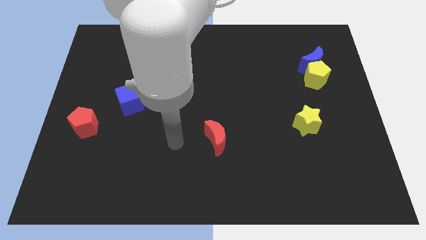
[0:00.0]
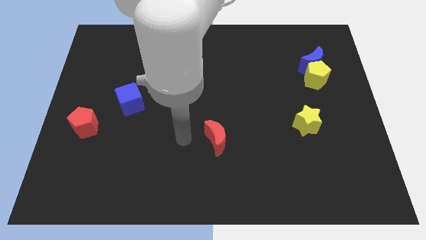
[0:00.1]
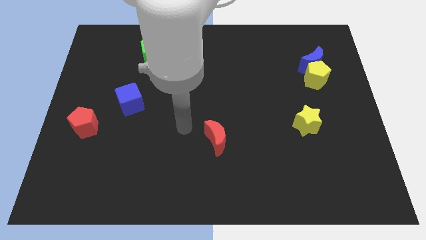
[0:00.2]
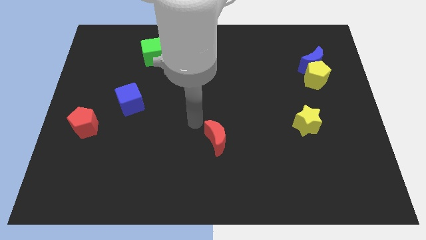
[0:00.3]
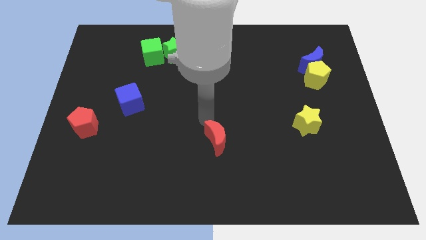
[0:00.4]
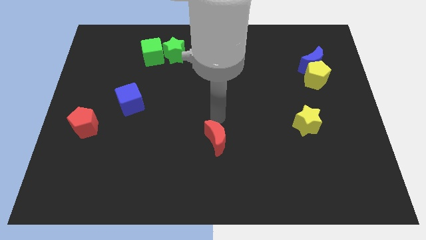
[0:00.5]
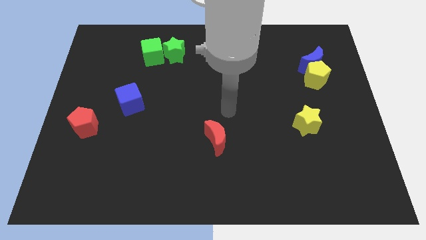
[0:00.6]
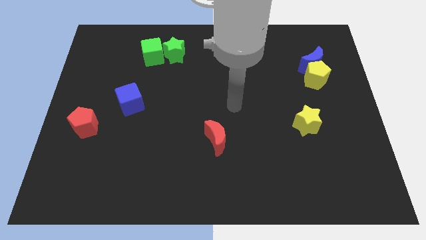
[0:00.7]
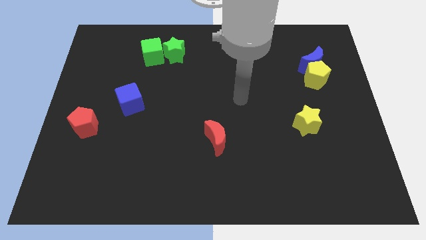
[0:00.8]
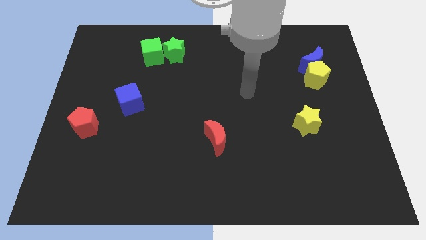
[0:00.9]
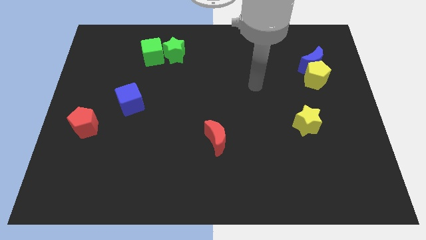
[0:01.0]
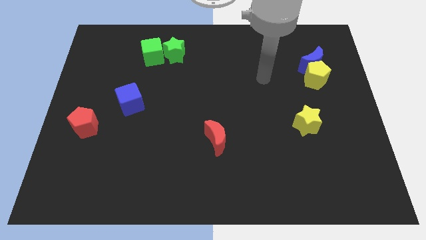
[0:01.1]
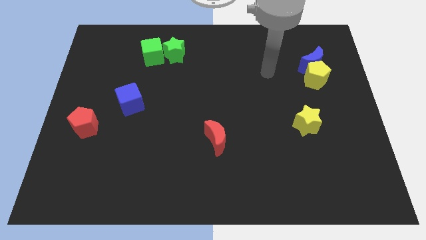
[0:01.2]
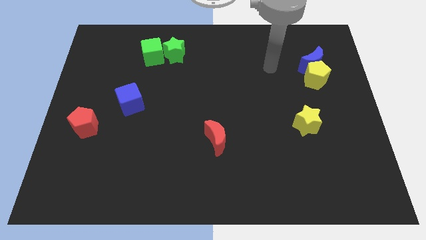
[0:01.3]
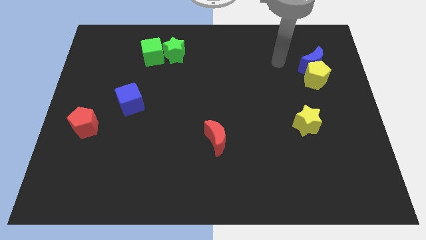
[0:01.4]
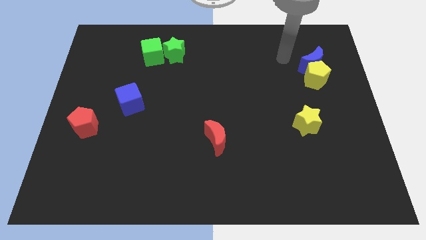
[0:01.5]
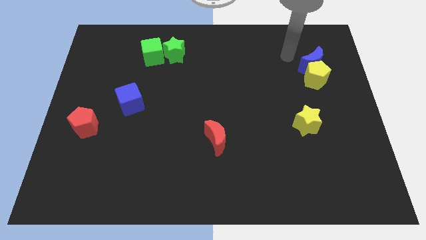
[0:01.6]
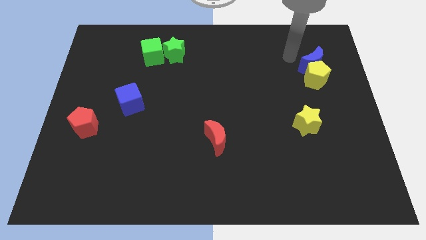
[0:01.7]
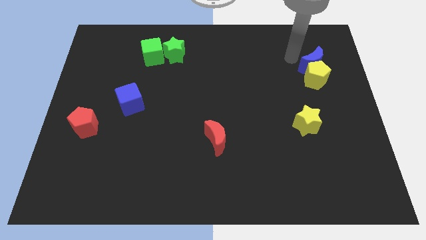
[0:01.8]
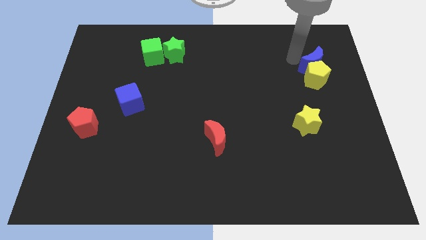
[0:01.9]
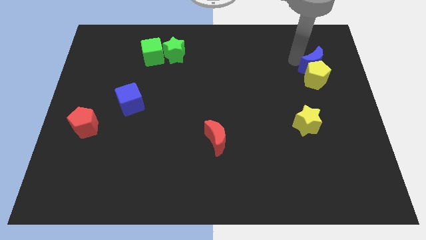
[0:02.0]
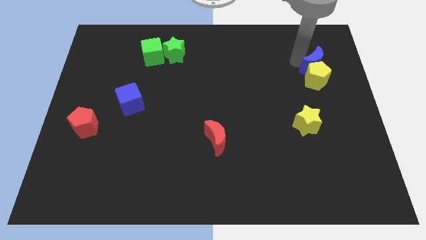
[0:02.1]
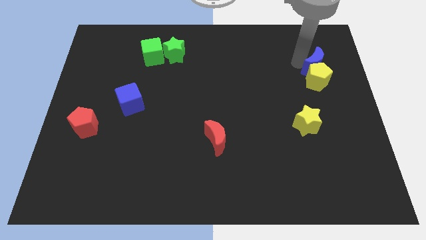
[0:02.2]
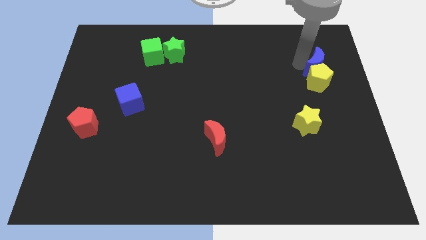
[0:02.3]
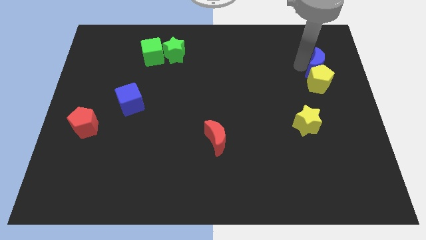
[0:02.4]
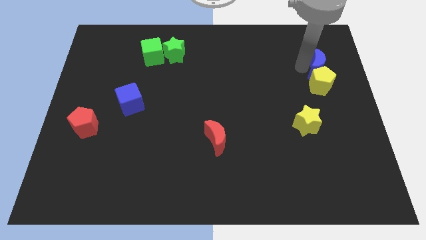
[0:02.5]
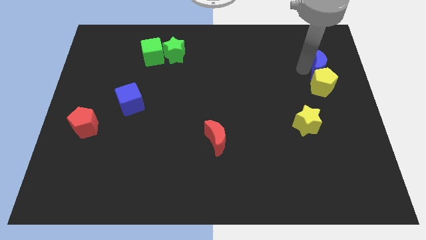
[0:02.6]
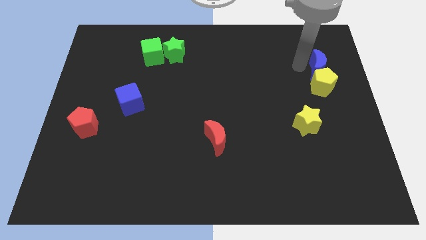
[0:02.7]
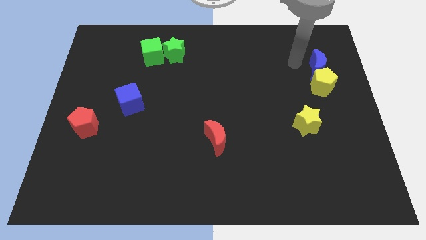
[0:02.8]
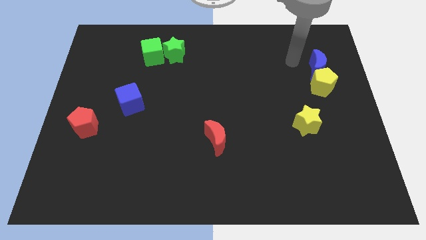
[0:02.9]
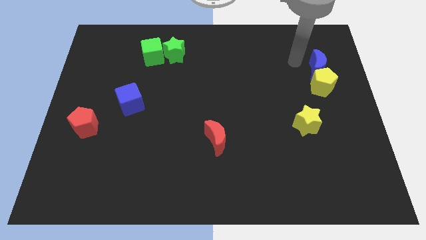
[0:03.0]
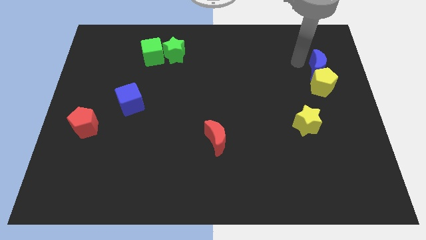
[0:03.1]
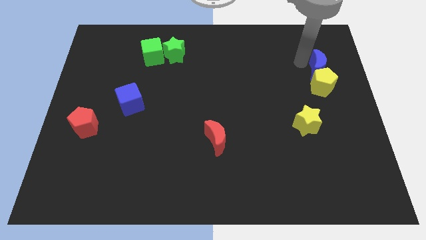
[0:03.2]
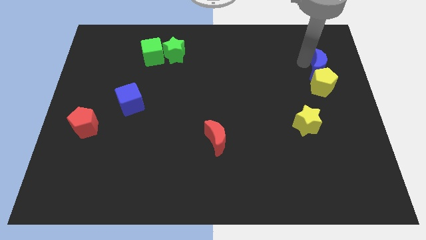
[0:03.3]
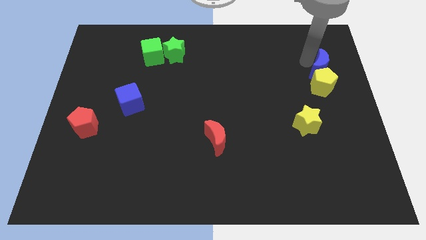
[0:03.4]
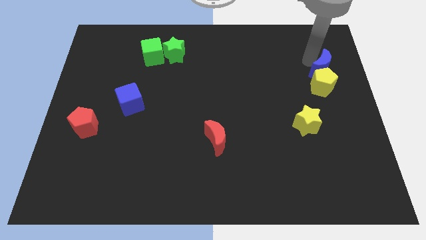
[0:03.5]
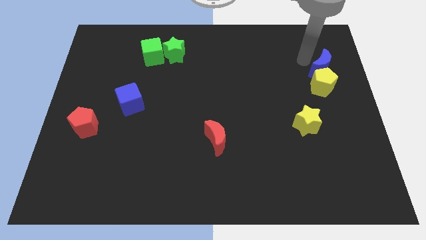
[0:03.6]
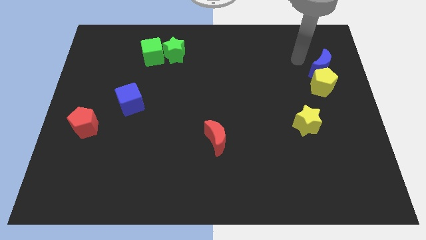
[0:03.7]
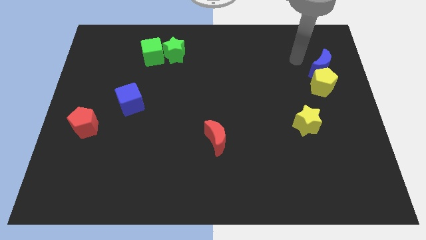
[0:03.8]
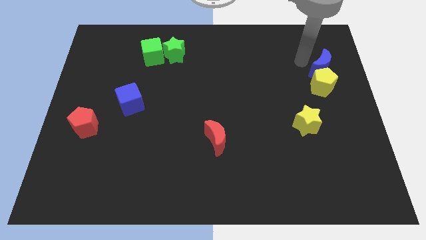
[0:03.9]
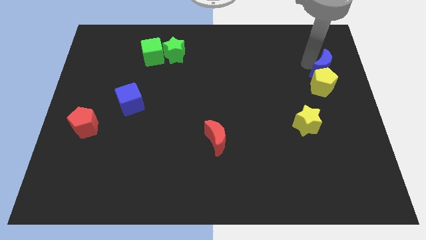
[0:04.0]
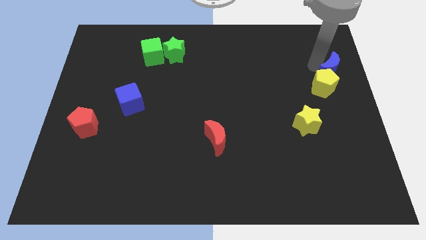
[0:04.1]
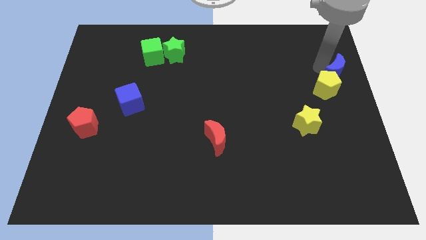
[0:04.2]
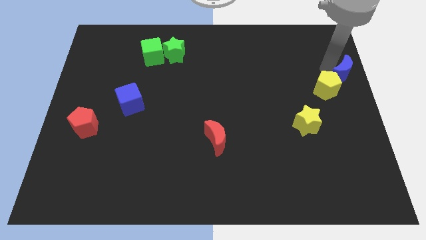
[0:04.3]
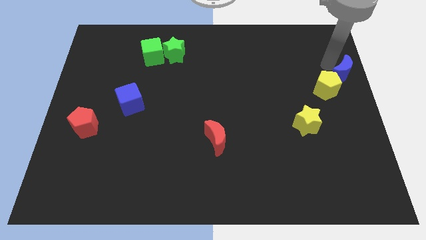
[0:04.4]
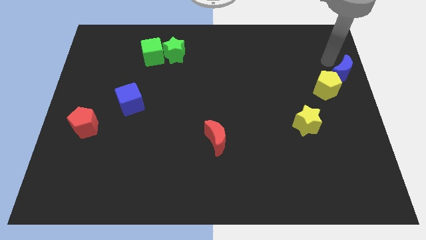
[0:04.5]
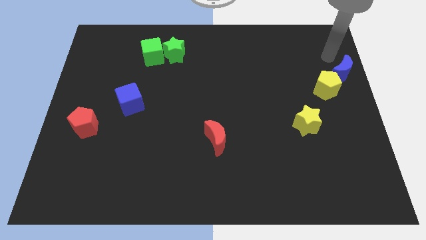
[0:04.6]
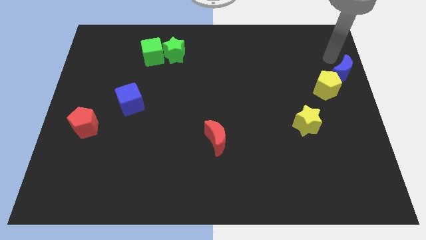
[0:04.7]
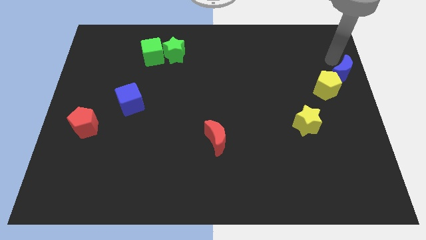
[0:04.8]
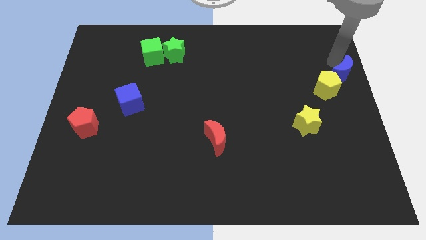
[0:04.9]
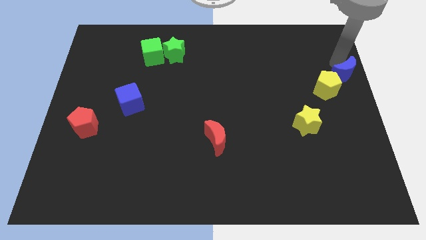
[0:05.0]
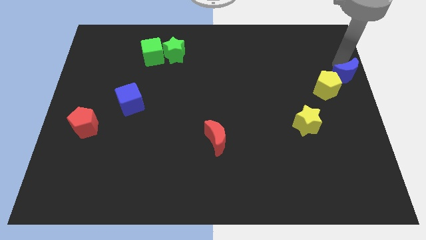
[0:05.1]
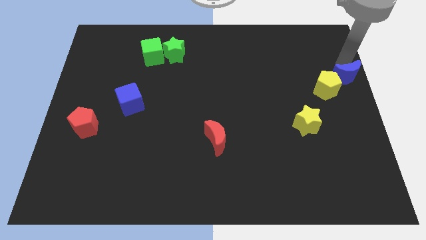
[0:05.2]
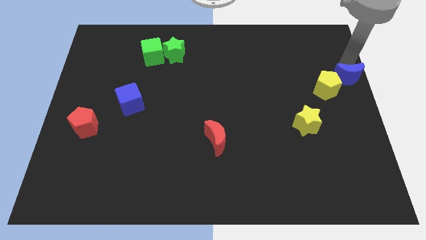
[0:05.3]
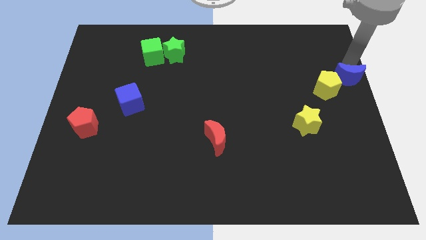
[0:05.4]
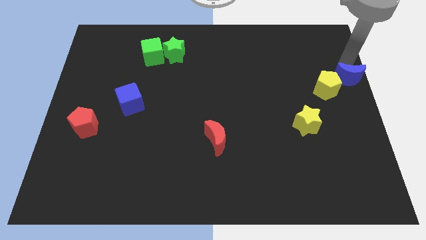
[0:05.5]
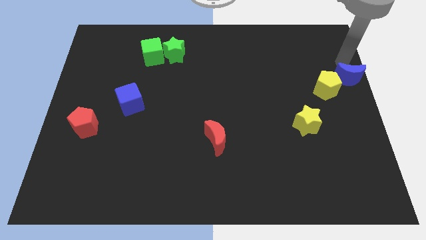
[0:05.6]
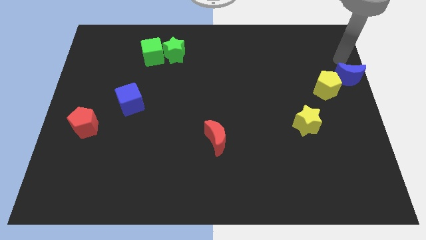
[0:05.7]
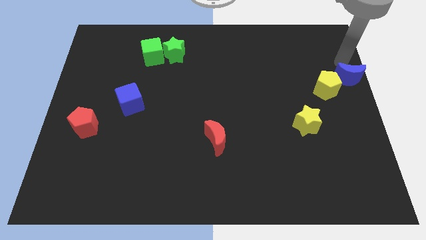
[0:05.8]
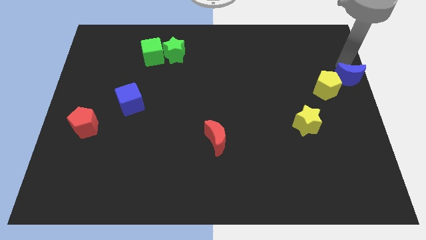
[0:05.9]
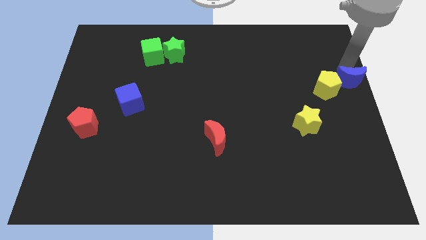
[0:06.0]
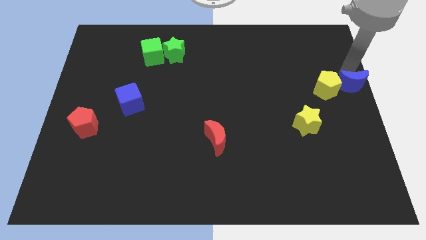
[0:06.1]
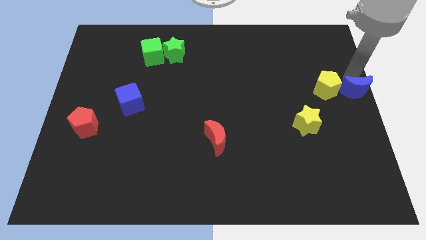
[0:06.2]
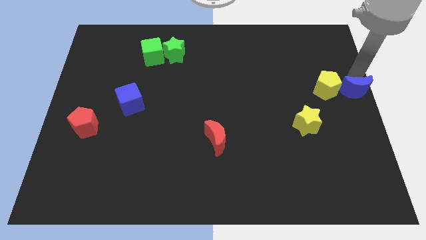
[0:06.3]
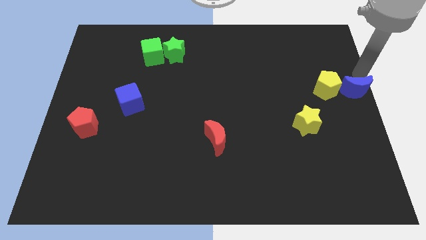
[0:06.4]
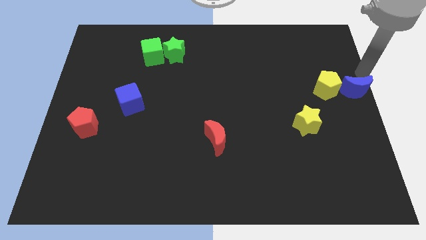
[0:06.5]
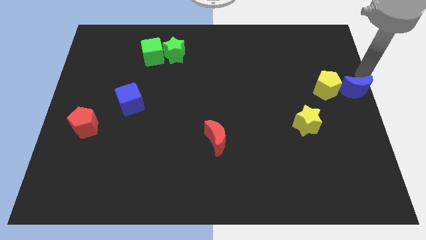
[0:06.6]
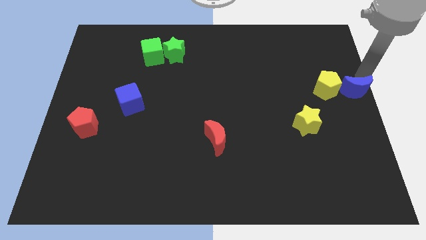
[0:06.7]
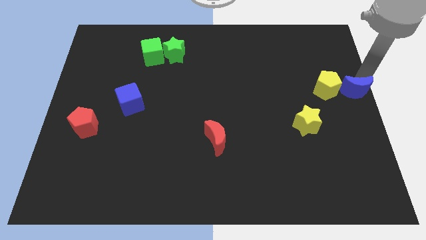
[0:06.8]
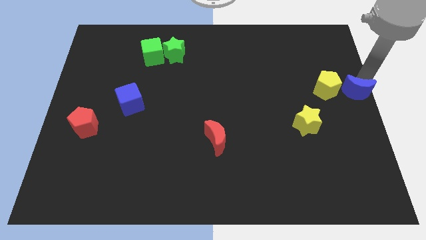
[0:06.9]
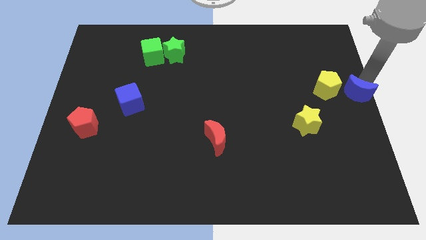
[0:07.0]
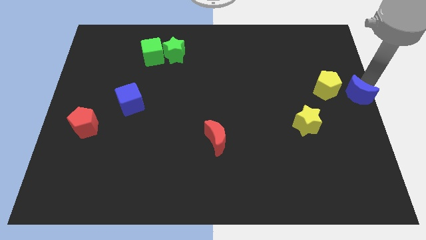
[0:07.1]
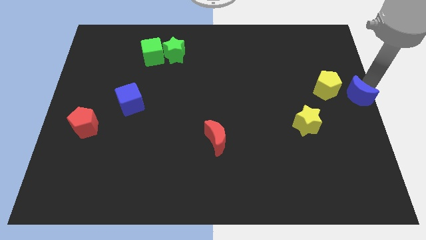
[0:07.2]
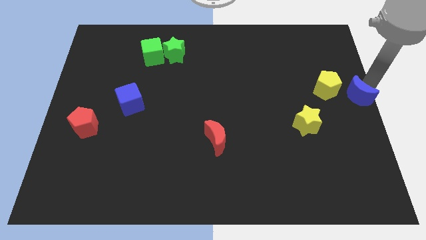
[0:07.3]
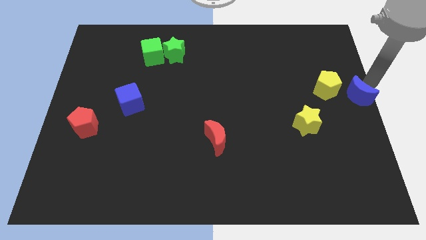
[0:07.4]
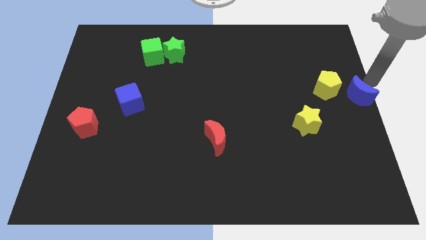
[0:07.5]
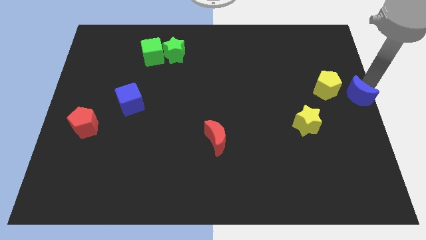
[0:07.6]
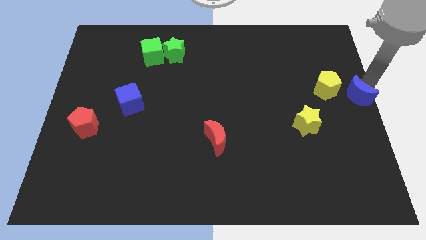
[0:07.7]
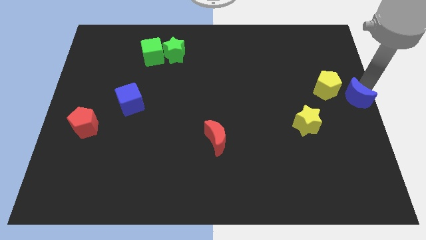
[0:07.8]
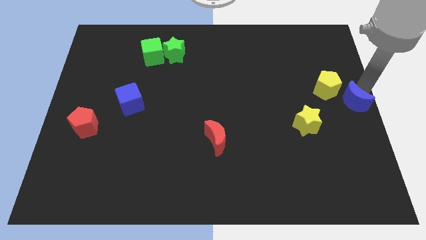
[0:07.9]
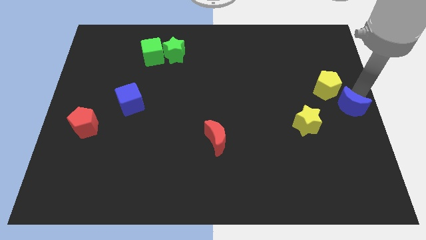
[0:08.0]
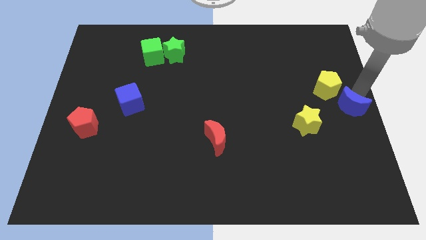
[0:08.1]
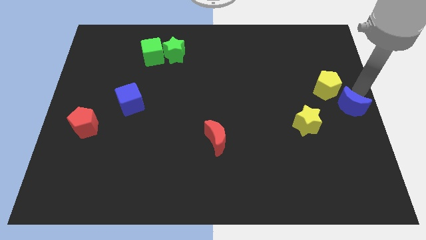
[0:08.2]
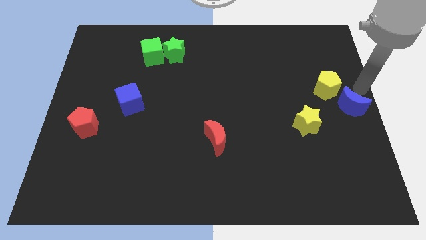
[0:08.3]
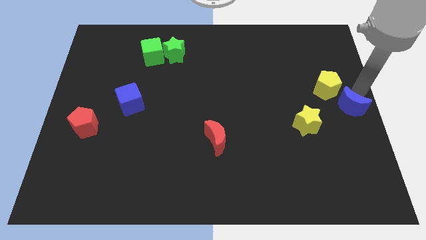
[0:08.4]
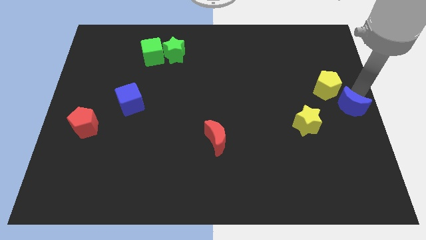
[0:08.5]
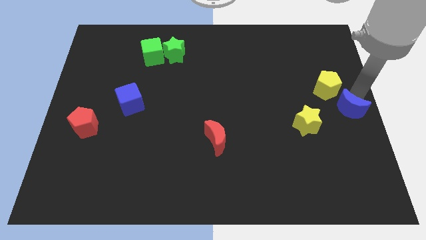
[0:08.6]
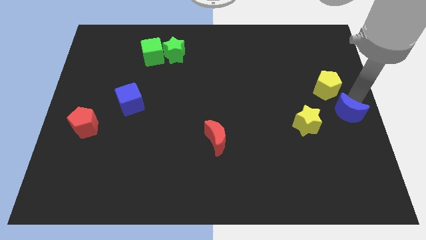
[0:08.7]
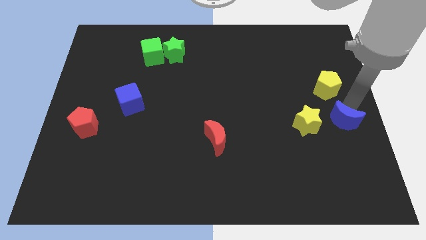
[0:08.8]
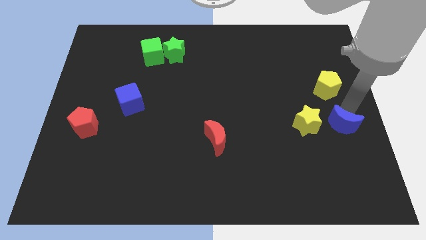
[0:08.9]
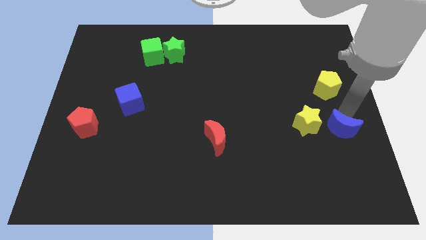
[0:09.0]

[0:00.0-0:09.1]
slide the blue moon downwards
